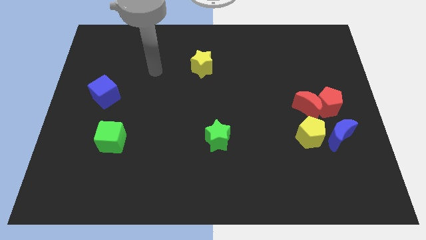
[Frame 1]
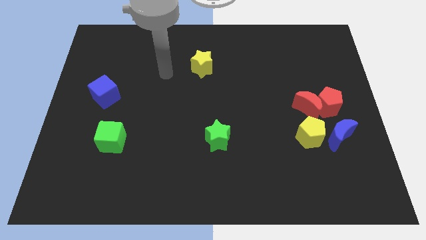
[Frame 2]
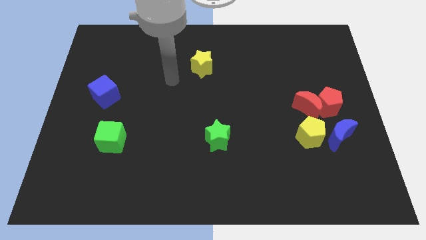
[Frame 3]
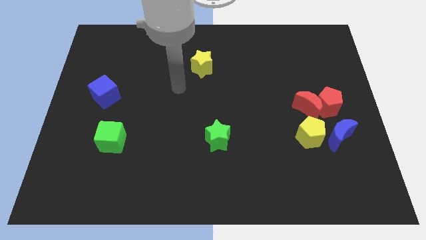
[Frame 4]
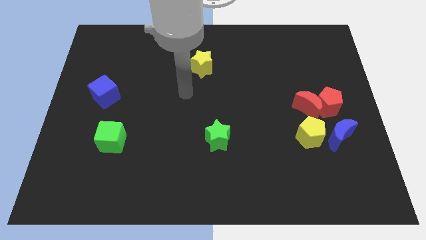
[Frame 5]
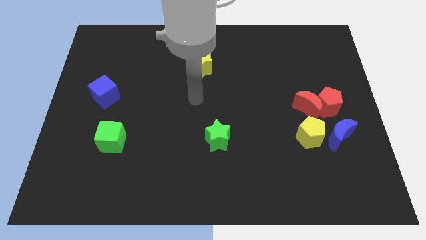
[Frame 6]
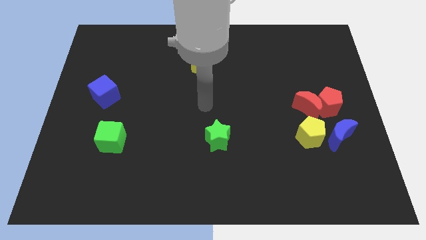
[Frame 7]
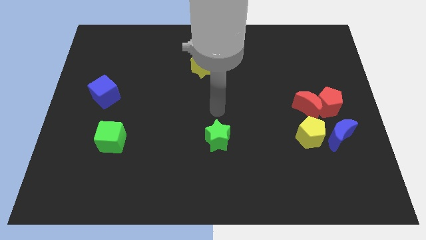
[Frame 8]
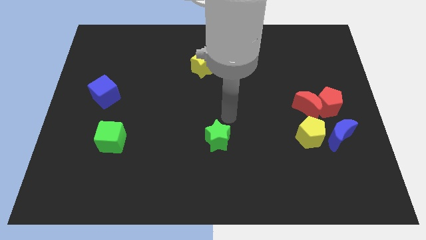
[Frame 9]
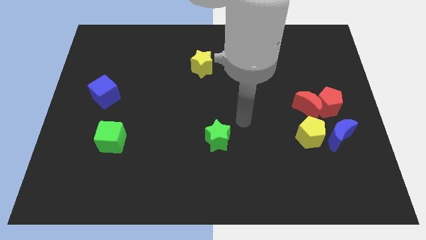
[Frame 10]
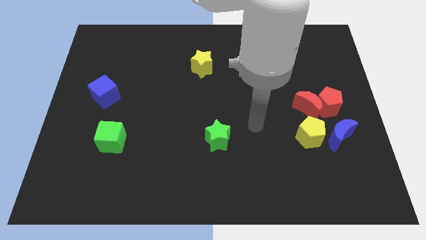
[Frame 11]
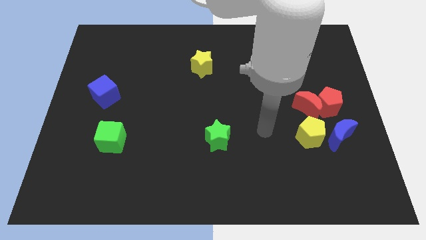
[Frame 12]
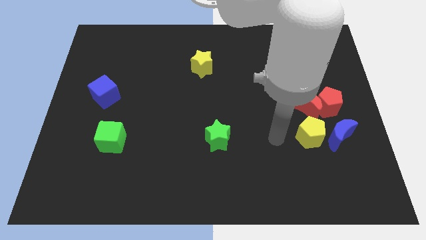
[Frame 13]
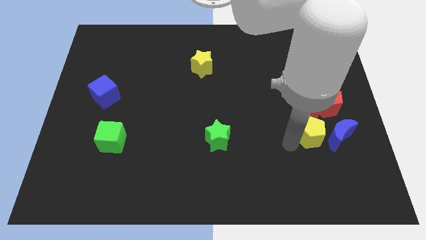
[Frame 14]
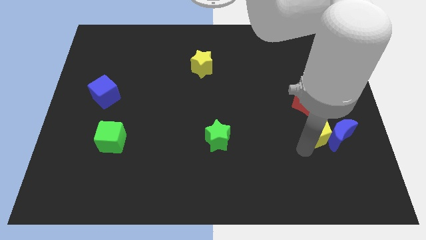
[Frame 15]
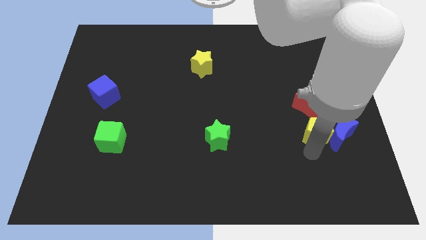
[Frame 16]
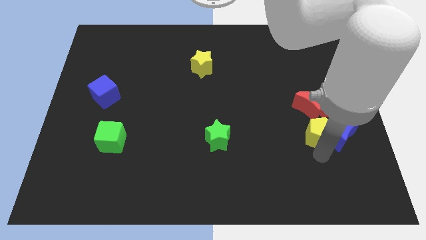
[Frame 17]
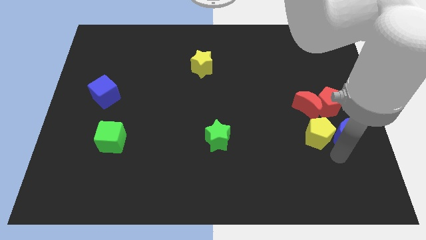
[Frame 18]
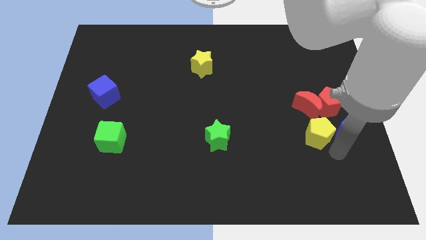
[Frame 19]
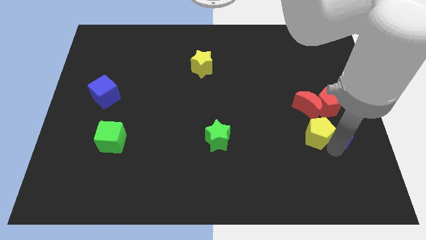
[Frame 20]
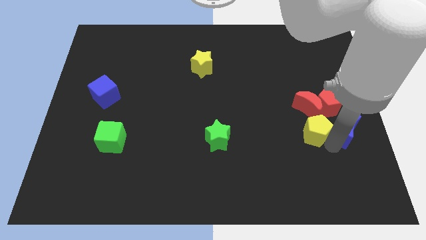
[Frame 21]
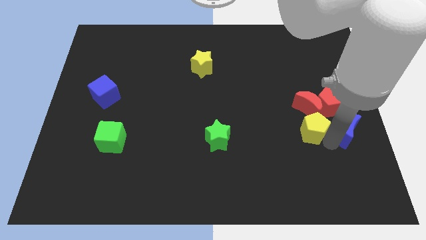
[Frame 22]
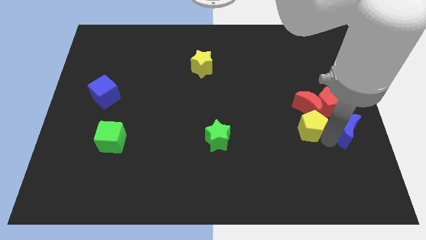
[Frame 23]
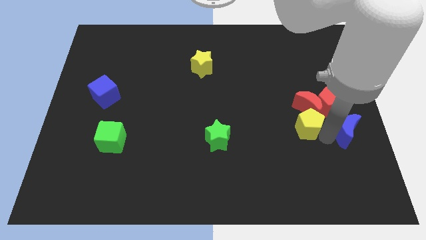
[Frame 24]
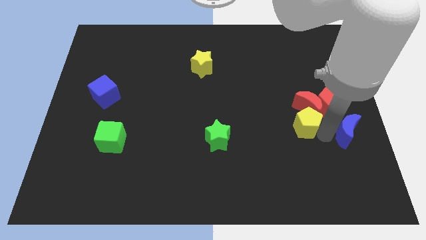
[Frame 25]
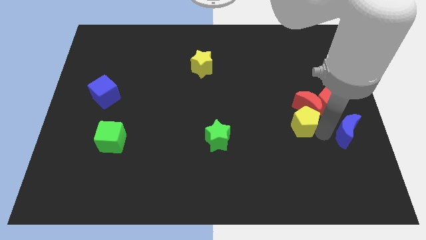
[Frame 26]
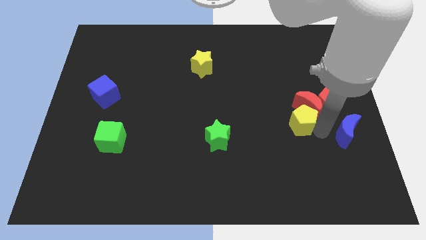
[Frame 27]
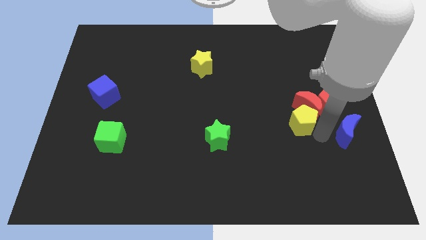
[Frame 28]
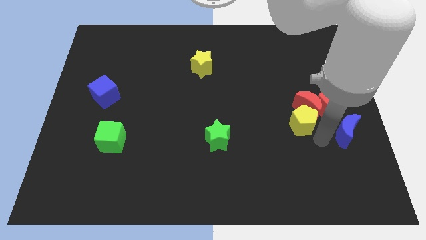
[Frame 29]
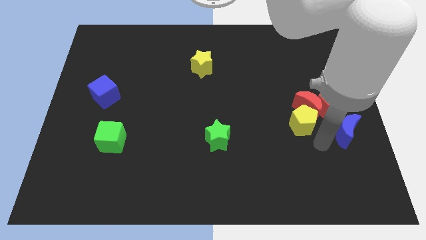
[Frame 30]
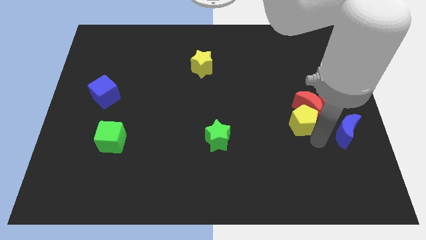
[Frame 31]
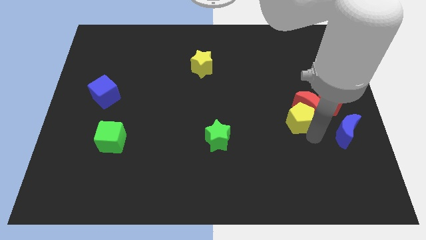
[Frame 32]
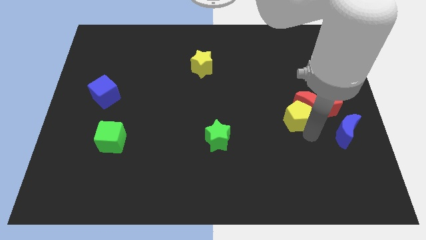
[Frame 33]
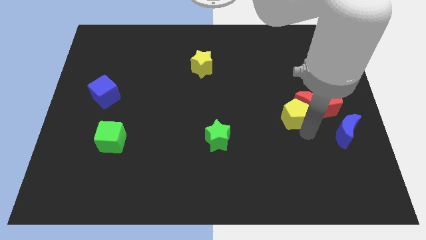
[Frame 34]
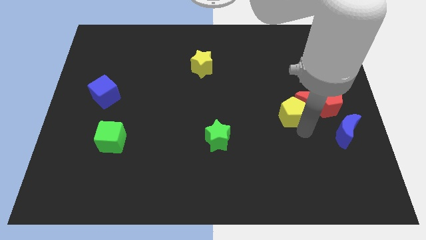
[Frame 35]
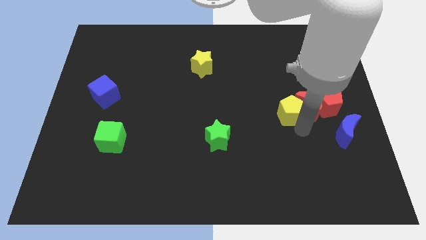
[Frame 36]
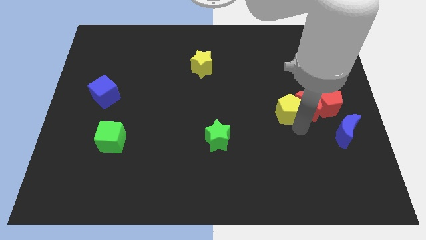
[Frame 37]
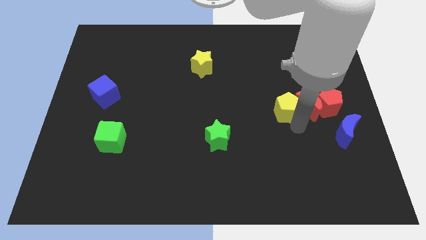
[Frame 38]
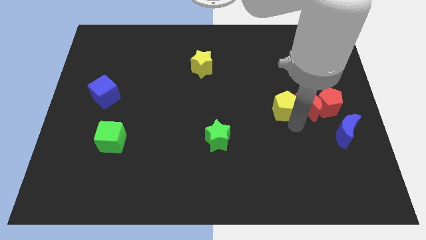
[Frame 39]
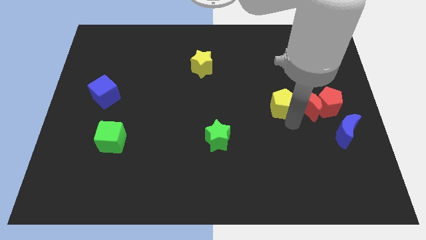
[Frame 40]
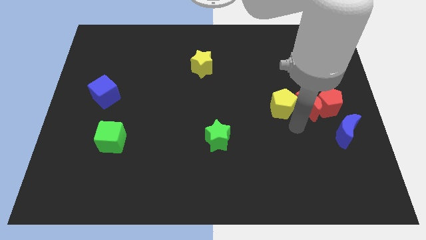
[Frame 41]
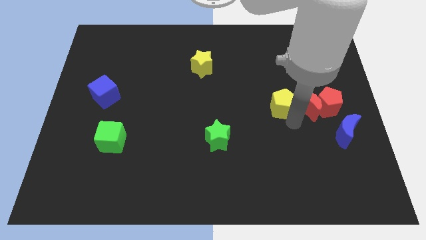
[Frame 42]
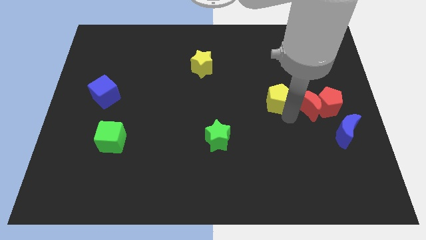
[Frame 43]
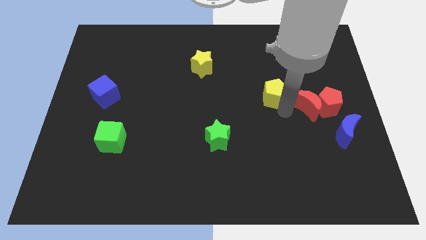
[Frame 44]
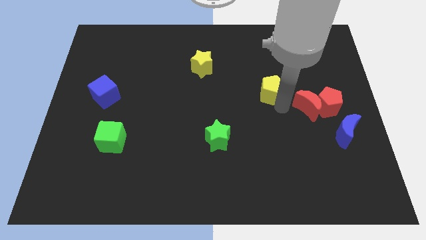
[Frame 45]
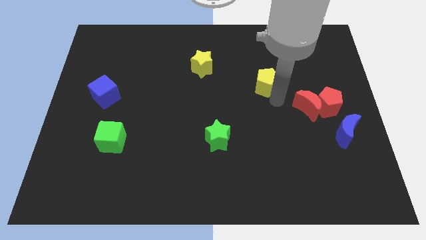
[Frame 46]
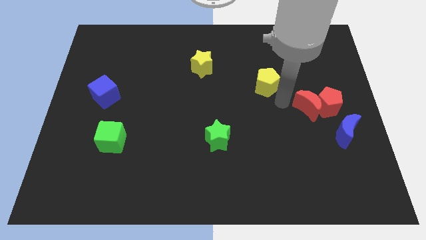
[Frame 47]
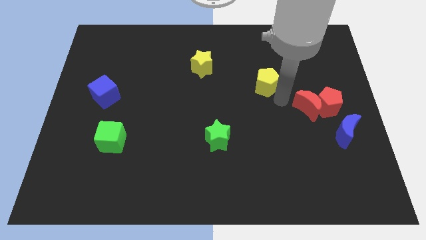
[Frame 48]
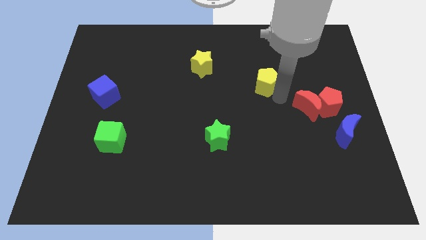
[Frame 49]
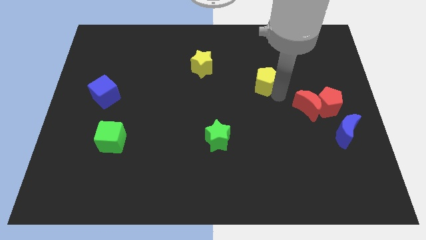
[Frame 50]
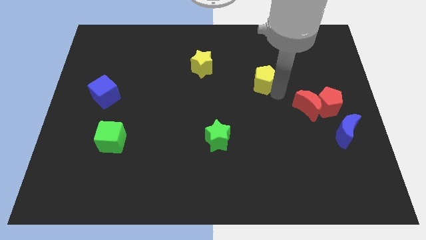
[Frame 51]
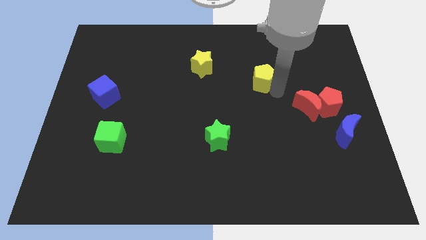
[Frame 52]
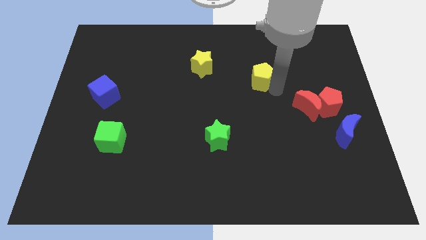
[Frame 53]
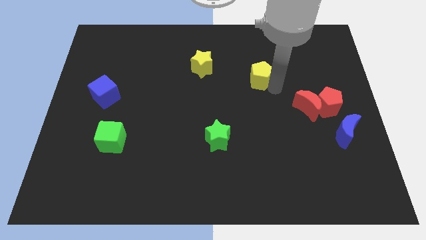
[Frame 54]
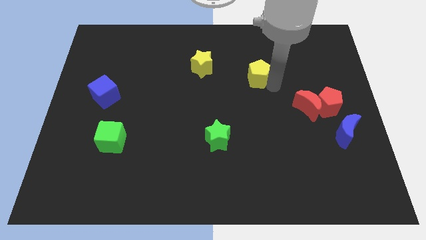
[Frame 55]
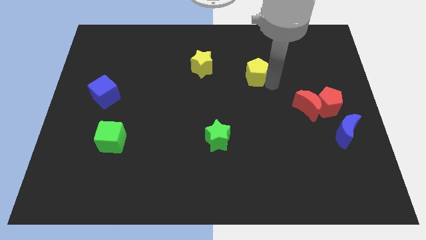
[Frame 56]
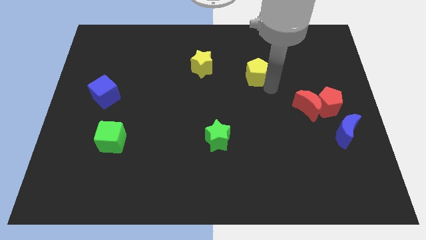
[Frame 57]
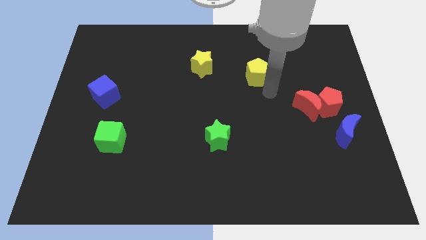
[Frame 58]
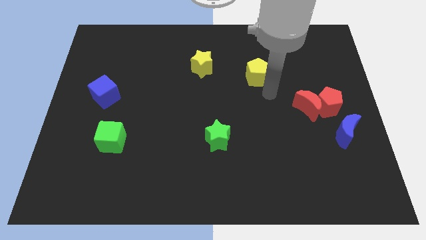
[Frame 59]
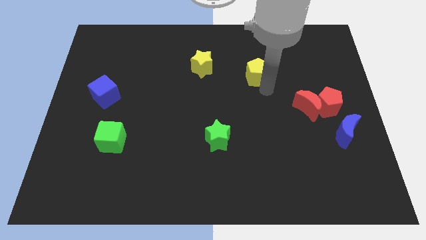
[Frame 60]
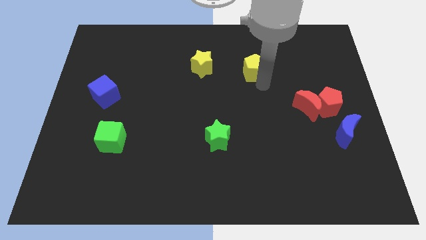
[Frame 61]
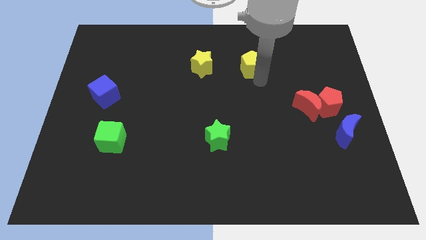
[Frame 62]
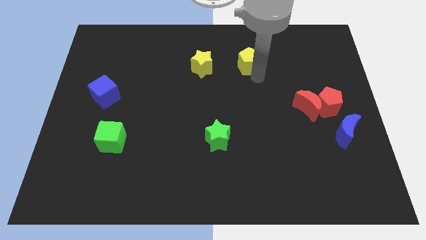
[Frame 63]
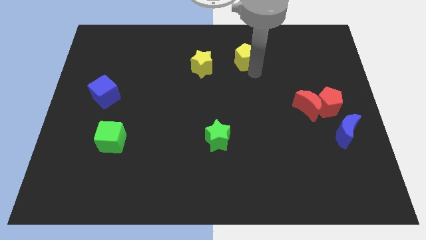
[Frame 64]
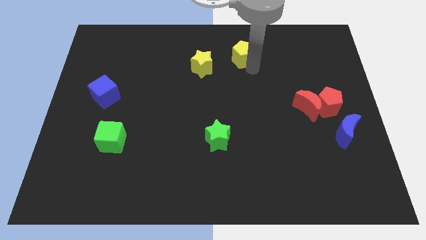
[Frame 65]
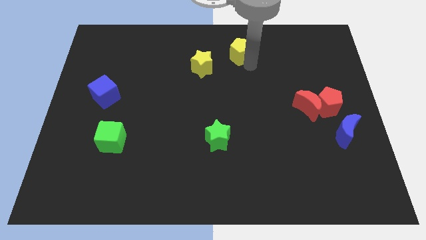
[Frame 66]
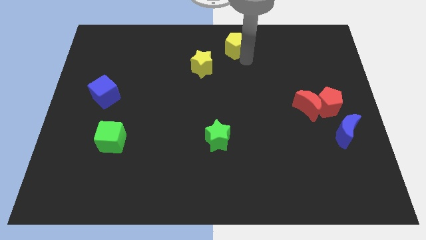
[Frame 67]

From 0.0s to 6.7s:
move the yellow pentagon to the towards your base
